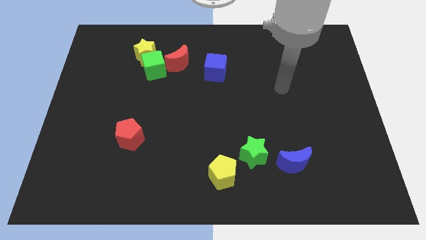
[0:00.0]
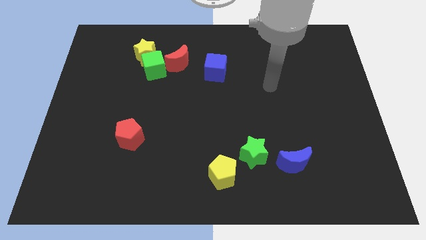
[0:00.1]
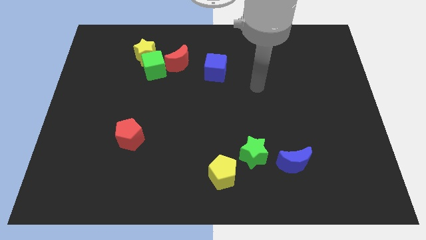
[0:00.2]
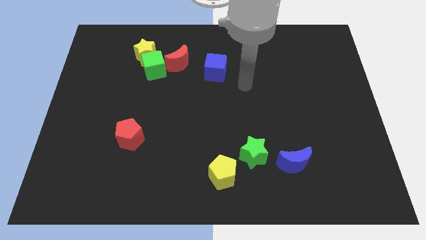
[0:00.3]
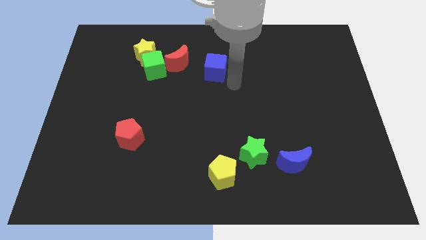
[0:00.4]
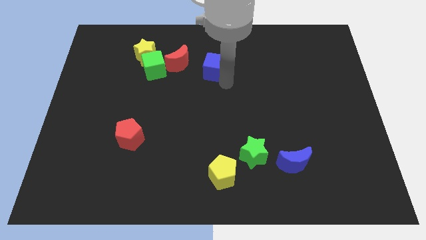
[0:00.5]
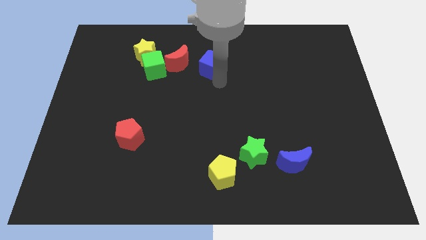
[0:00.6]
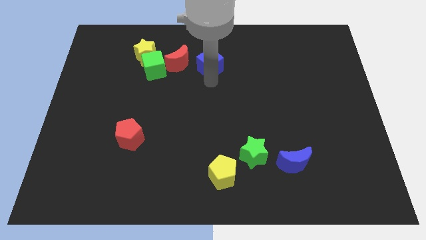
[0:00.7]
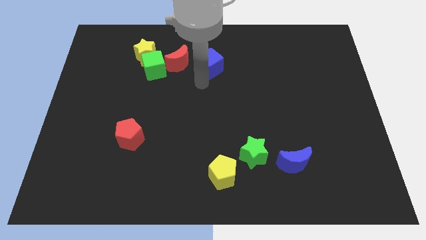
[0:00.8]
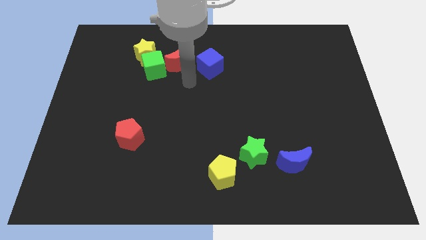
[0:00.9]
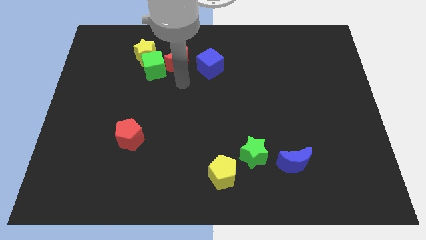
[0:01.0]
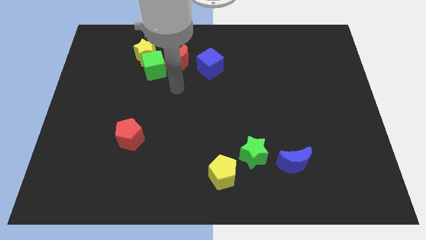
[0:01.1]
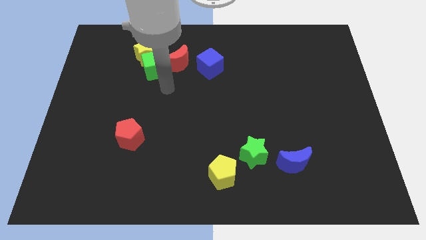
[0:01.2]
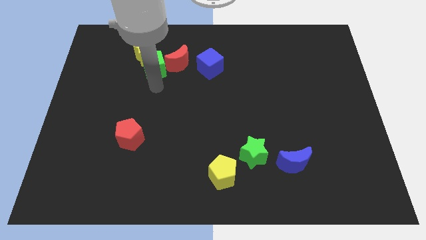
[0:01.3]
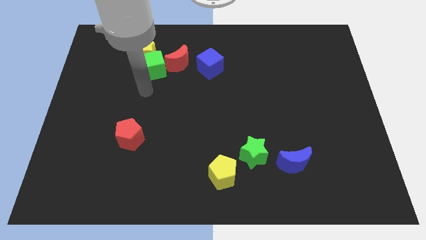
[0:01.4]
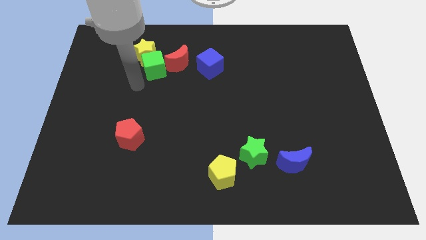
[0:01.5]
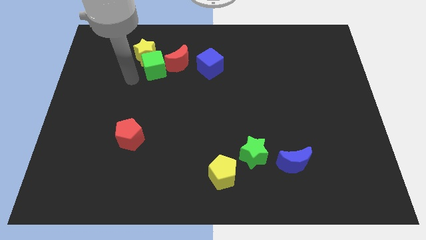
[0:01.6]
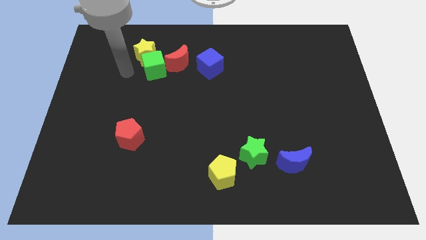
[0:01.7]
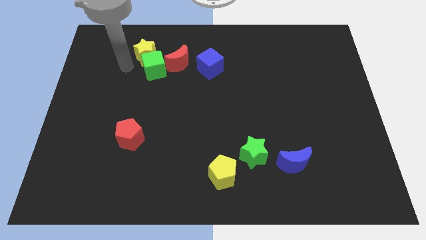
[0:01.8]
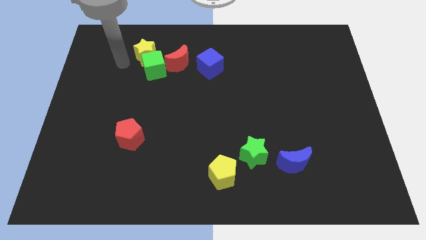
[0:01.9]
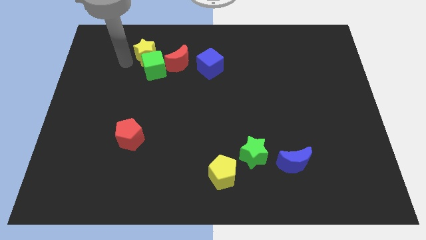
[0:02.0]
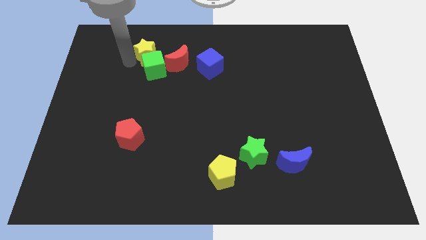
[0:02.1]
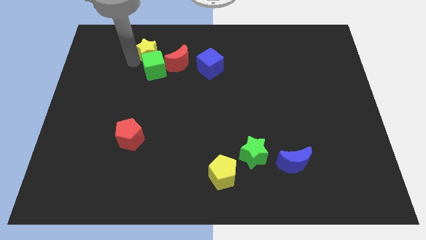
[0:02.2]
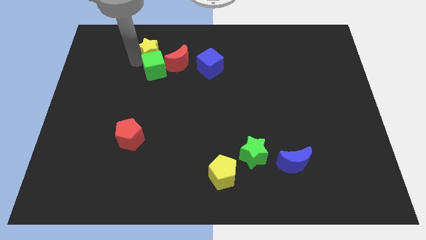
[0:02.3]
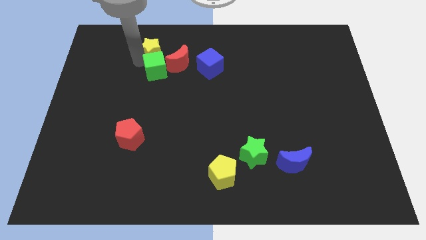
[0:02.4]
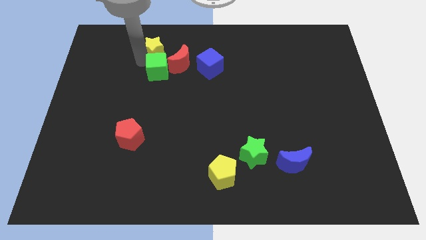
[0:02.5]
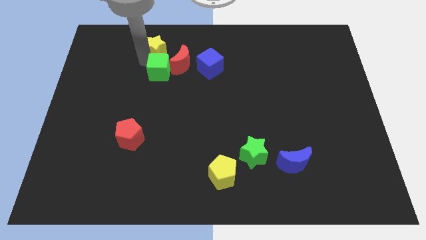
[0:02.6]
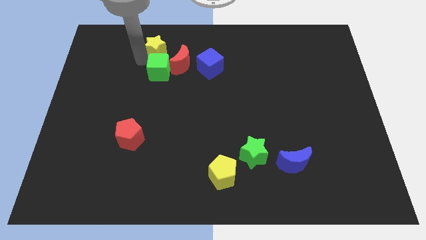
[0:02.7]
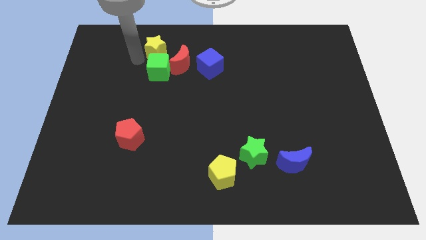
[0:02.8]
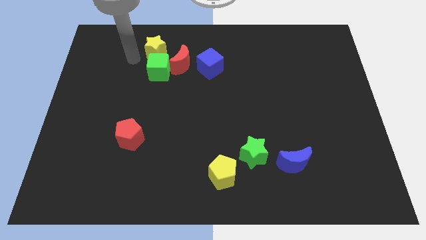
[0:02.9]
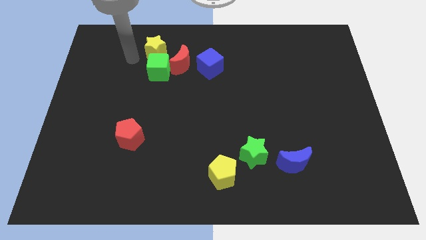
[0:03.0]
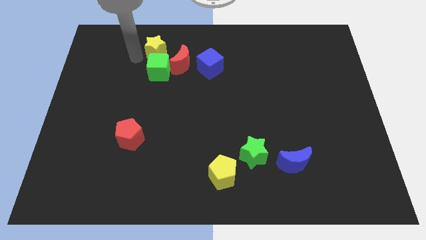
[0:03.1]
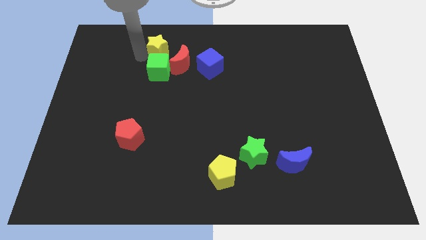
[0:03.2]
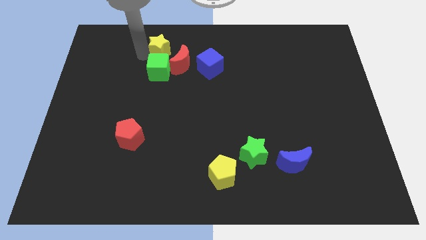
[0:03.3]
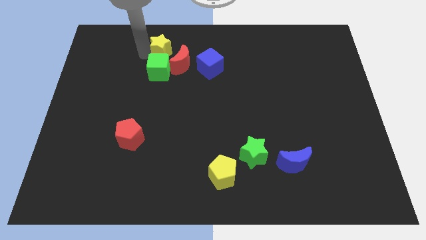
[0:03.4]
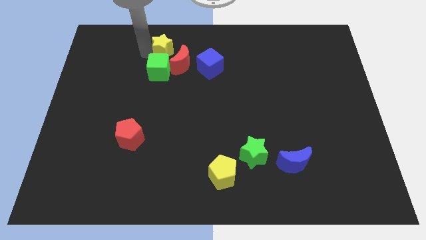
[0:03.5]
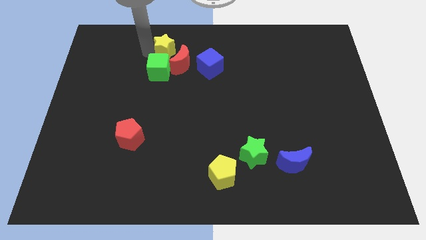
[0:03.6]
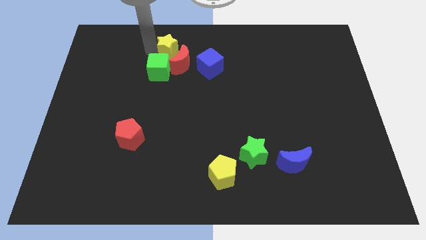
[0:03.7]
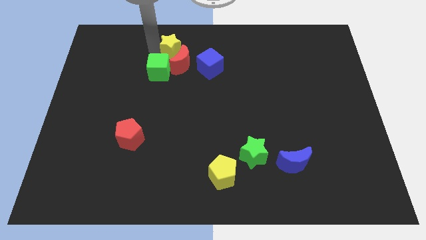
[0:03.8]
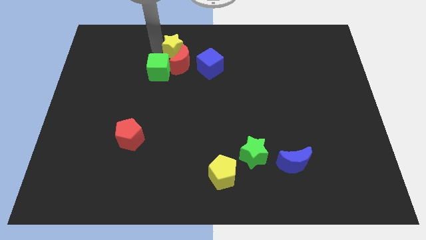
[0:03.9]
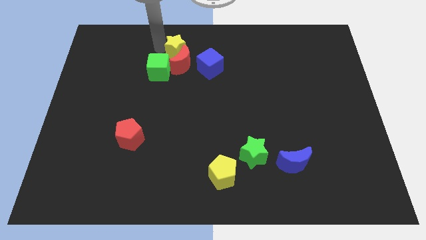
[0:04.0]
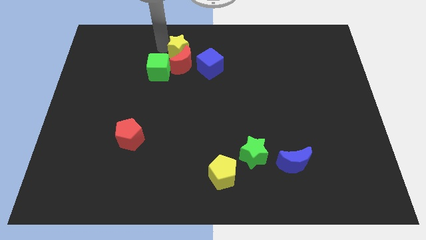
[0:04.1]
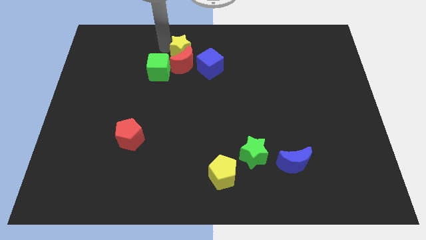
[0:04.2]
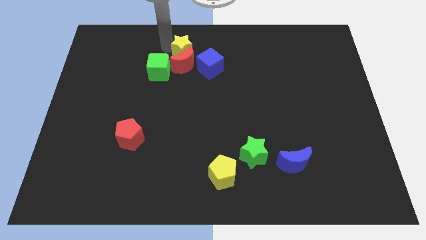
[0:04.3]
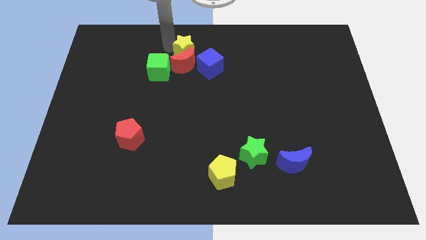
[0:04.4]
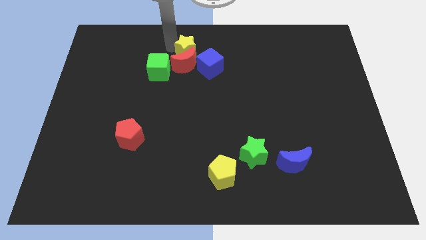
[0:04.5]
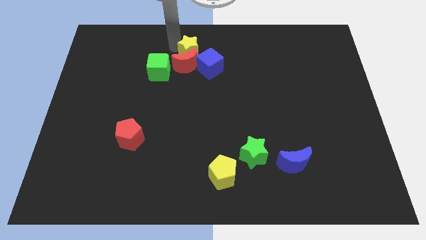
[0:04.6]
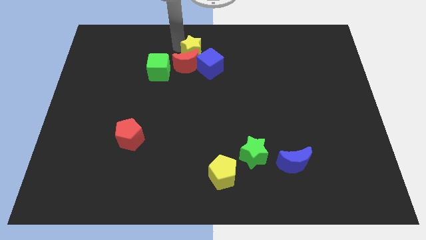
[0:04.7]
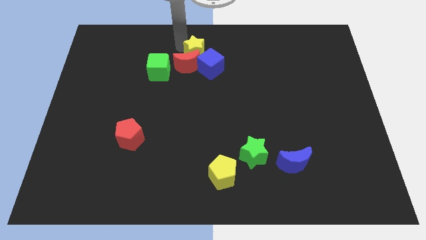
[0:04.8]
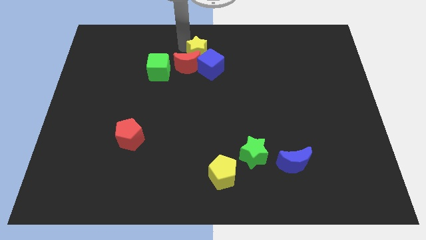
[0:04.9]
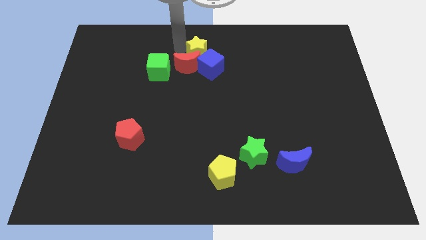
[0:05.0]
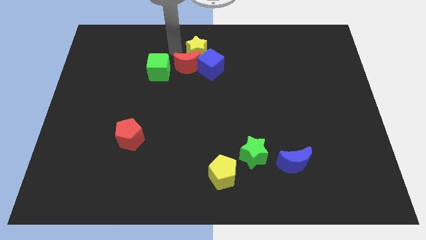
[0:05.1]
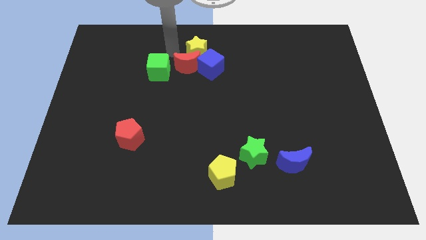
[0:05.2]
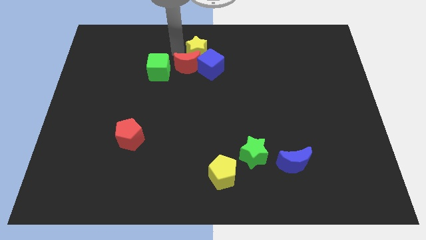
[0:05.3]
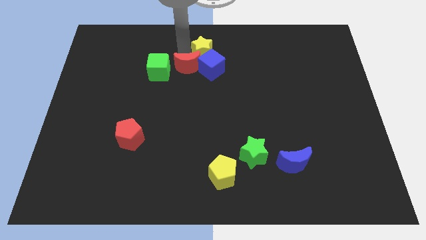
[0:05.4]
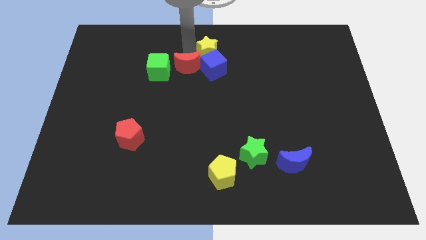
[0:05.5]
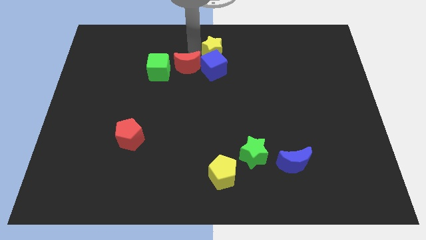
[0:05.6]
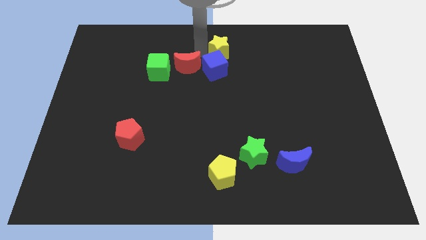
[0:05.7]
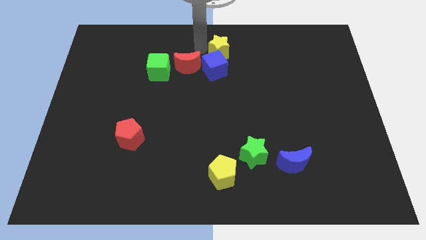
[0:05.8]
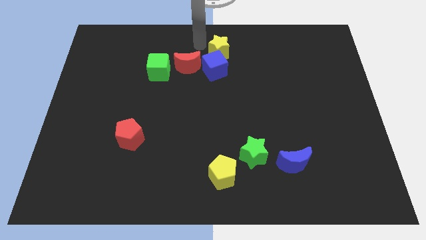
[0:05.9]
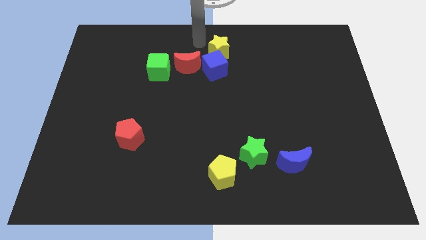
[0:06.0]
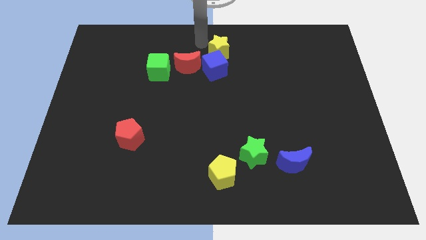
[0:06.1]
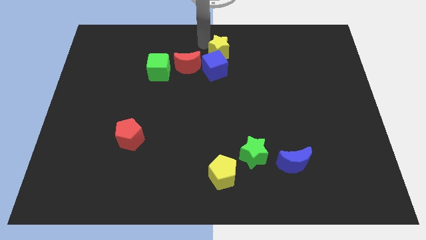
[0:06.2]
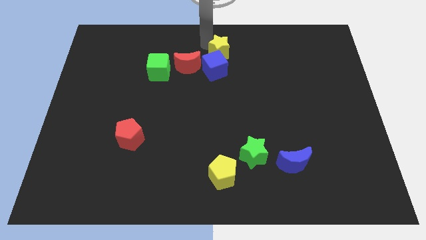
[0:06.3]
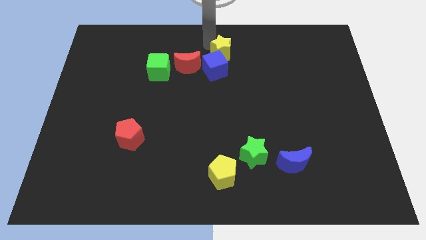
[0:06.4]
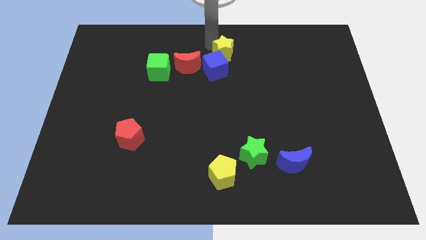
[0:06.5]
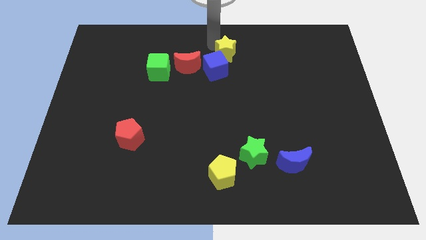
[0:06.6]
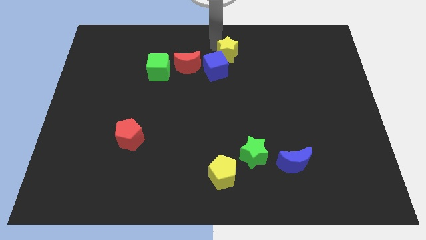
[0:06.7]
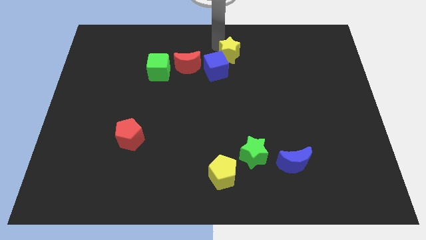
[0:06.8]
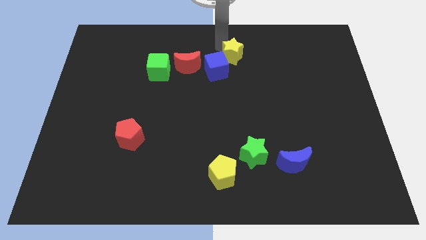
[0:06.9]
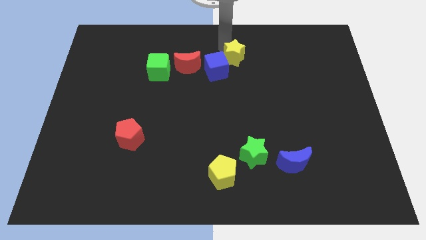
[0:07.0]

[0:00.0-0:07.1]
push the yellow star to the right of the blue cube
